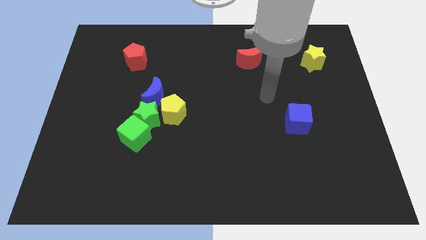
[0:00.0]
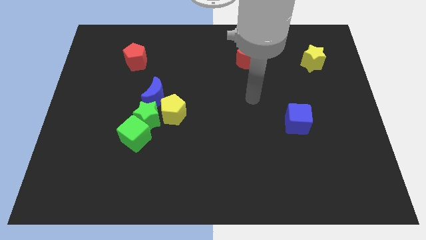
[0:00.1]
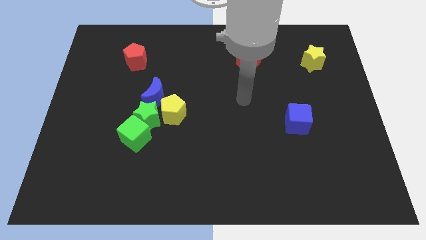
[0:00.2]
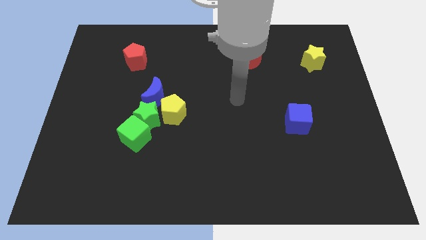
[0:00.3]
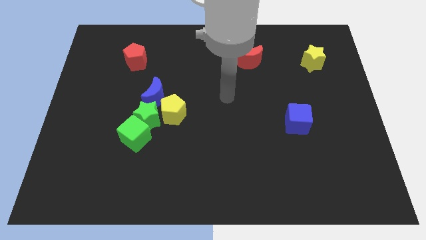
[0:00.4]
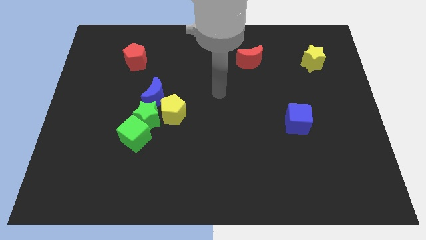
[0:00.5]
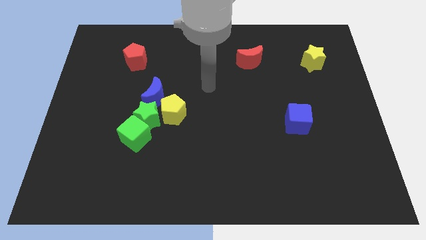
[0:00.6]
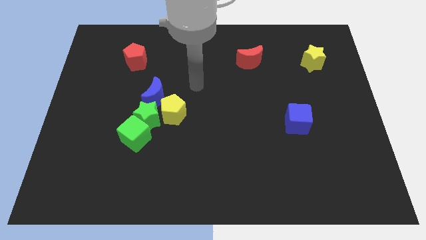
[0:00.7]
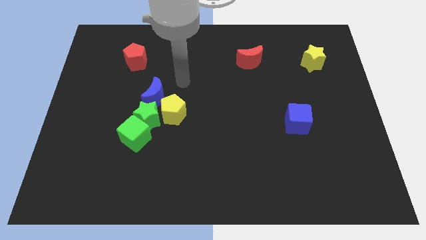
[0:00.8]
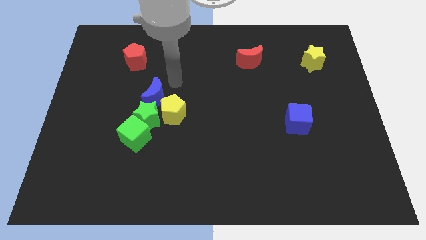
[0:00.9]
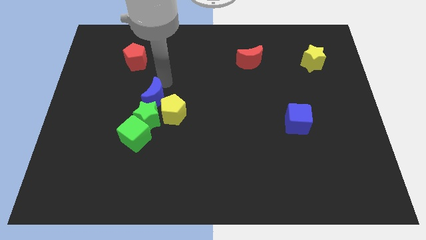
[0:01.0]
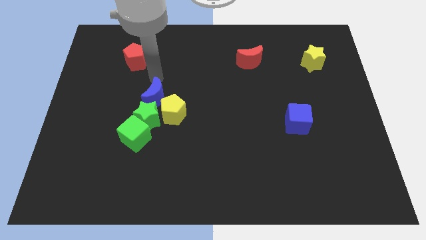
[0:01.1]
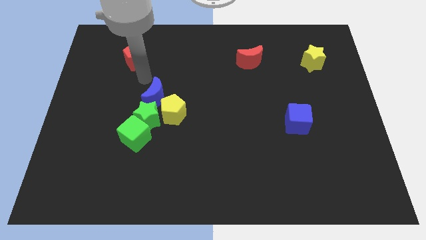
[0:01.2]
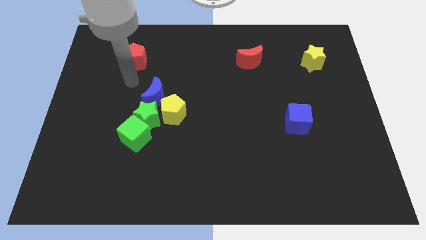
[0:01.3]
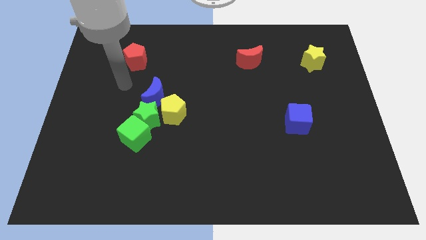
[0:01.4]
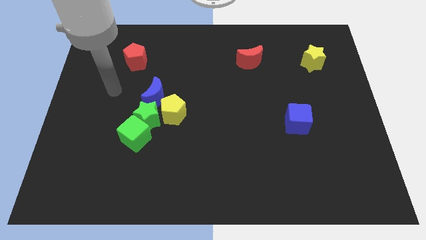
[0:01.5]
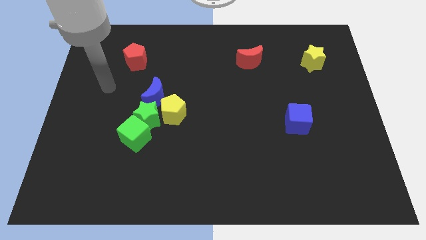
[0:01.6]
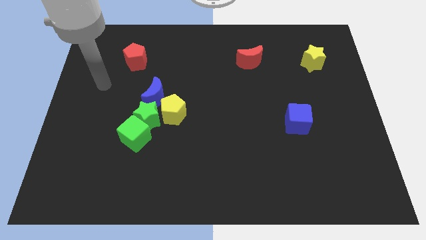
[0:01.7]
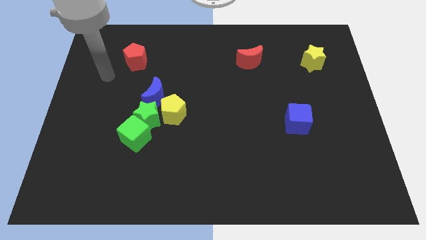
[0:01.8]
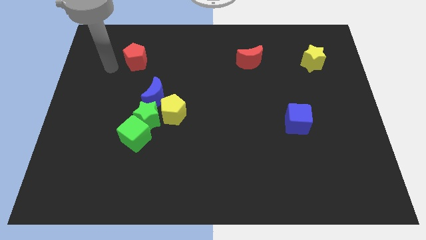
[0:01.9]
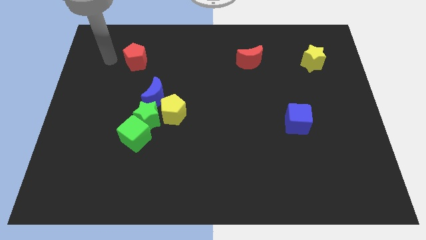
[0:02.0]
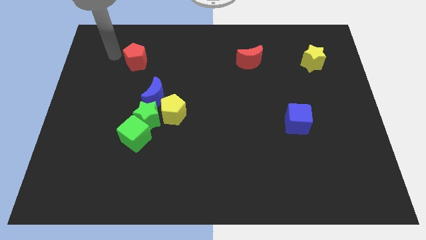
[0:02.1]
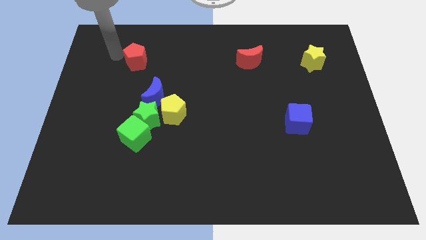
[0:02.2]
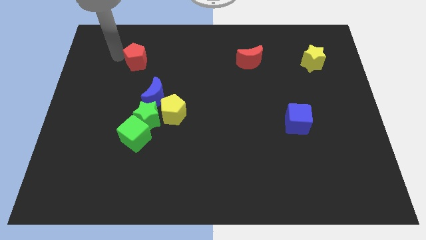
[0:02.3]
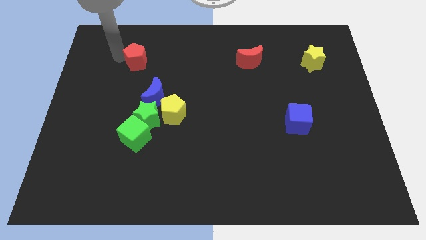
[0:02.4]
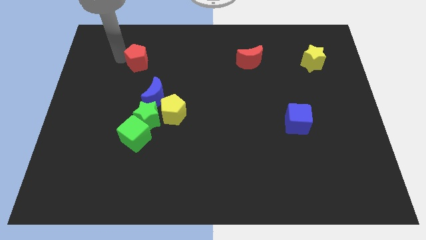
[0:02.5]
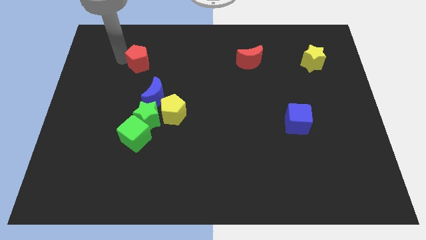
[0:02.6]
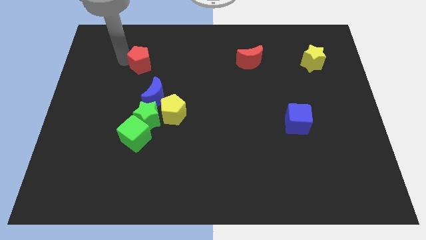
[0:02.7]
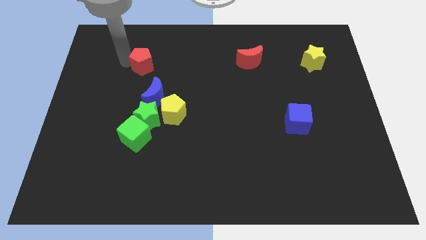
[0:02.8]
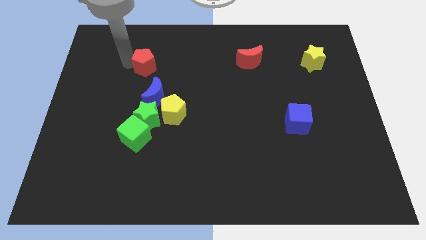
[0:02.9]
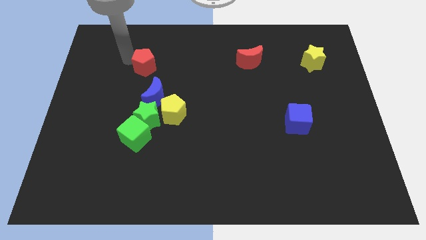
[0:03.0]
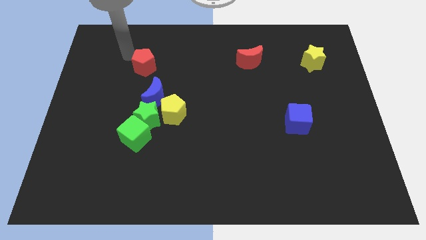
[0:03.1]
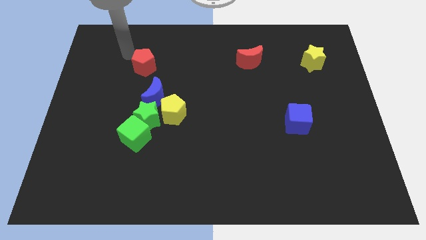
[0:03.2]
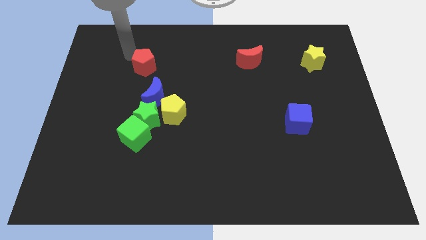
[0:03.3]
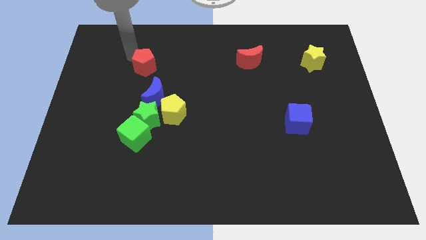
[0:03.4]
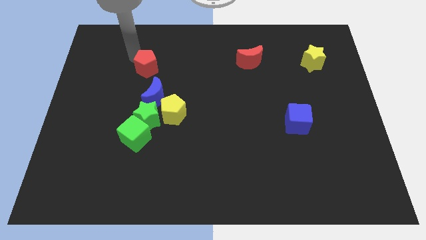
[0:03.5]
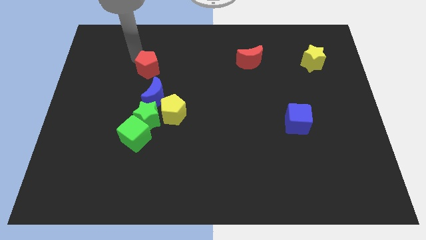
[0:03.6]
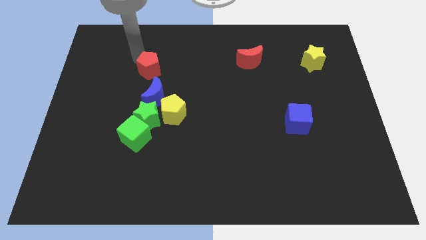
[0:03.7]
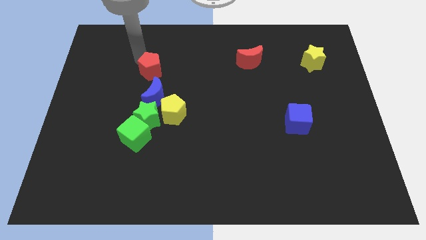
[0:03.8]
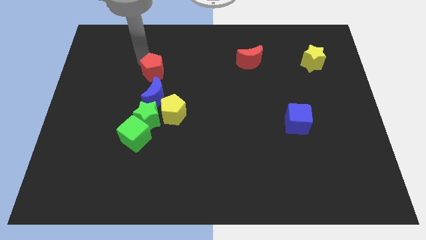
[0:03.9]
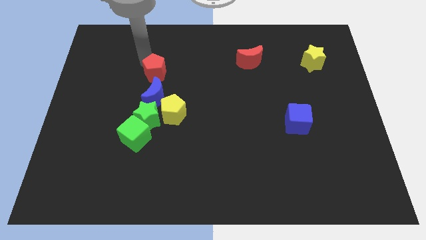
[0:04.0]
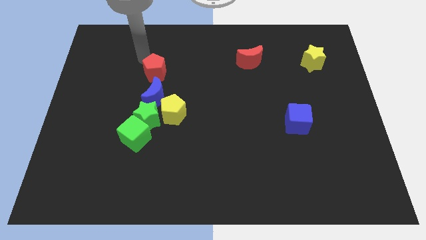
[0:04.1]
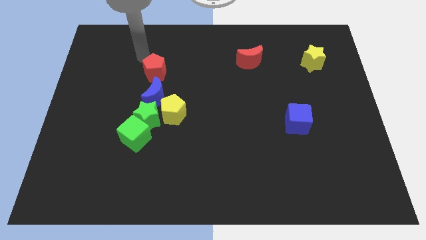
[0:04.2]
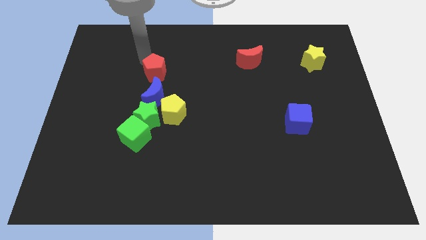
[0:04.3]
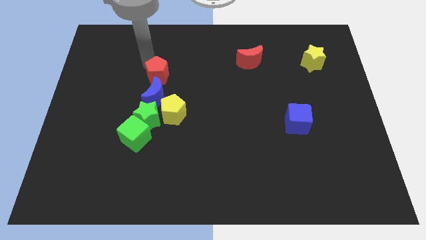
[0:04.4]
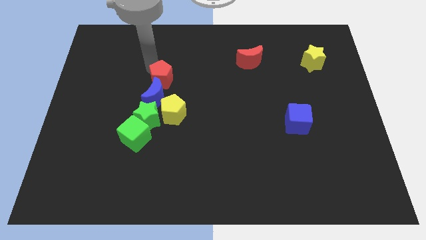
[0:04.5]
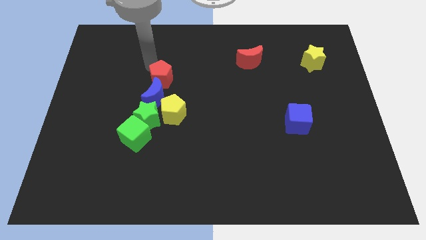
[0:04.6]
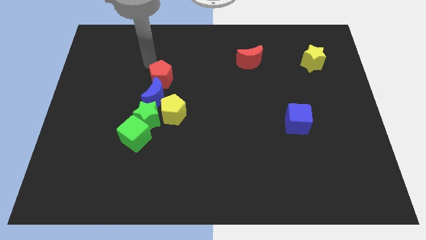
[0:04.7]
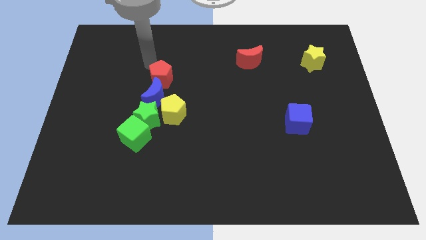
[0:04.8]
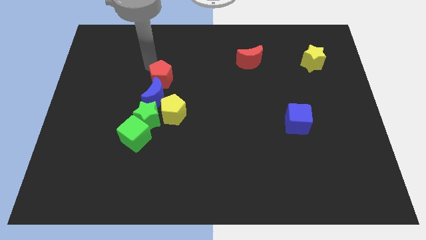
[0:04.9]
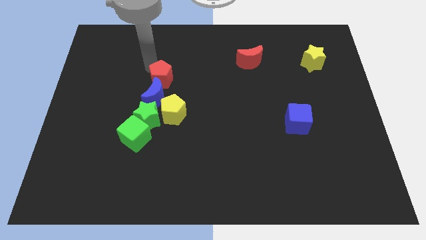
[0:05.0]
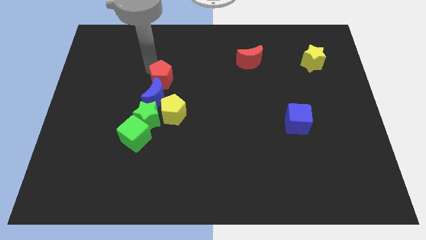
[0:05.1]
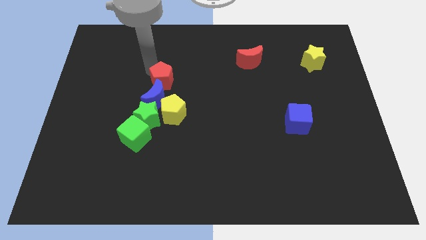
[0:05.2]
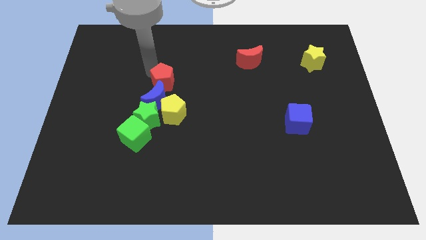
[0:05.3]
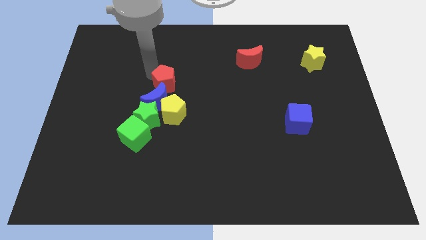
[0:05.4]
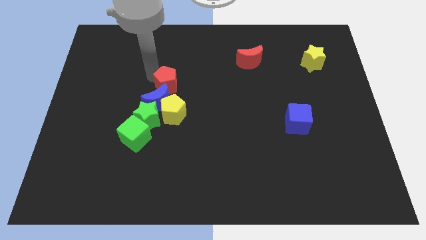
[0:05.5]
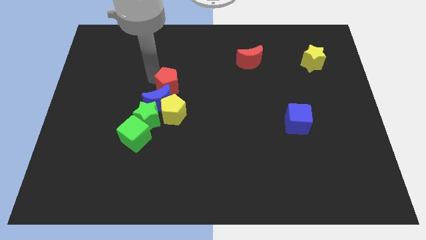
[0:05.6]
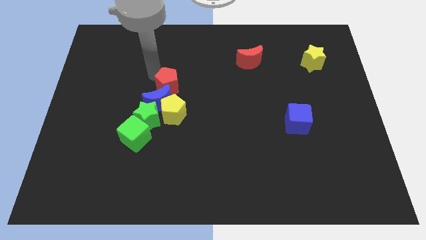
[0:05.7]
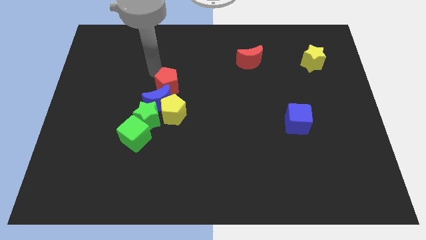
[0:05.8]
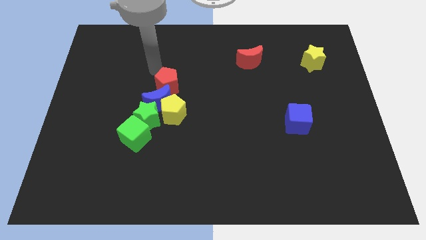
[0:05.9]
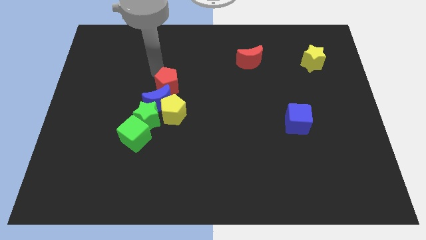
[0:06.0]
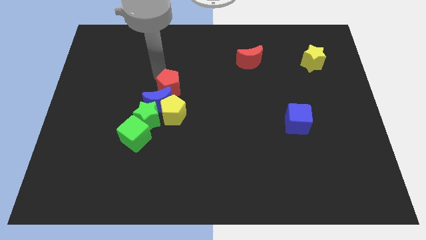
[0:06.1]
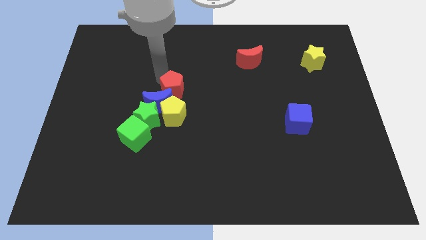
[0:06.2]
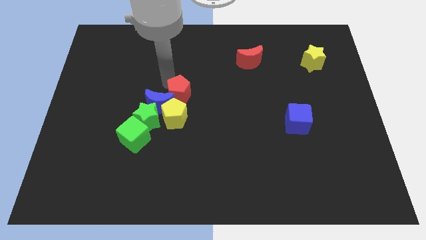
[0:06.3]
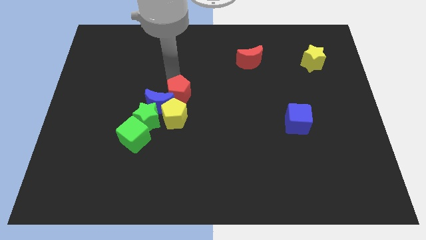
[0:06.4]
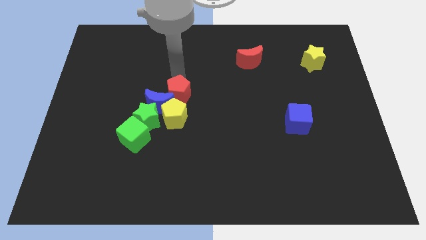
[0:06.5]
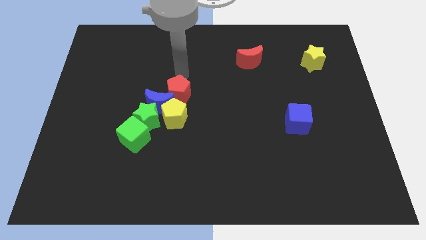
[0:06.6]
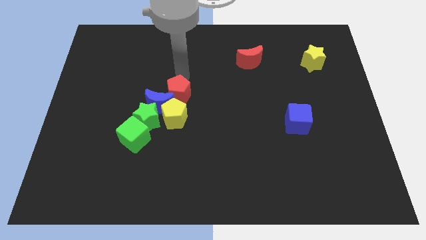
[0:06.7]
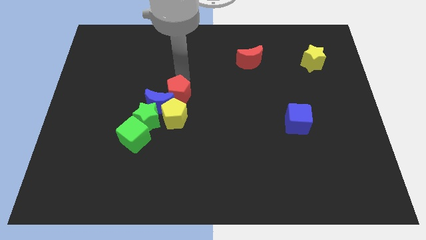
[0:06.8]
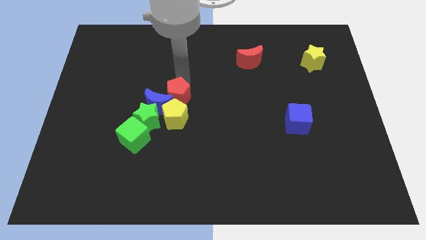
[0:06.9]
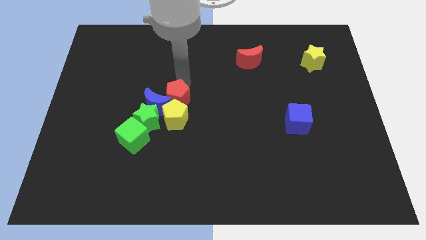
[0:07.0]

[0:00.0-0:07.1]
slide the red pentagon to the yellow pentagon

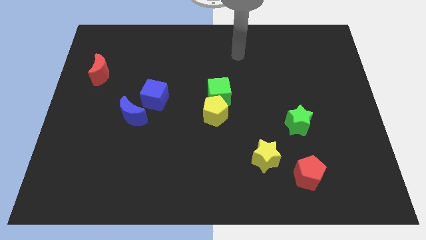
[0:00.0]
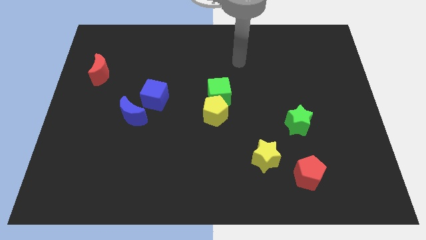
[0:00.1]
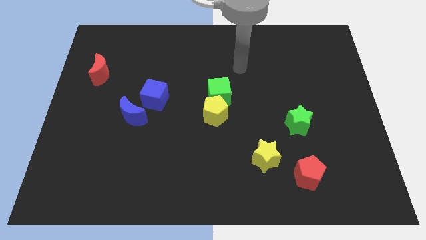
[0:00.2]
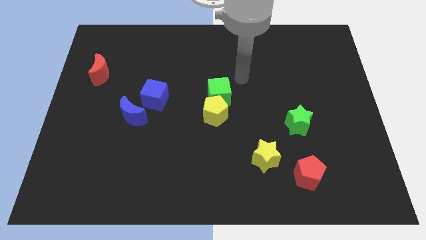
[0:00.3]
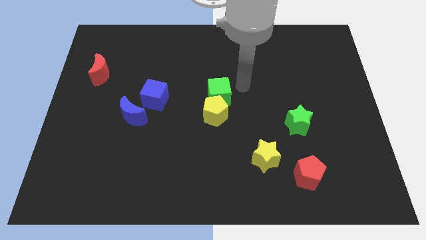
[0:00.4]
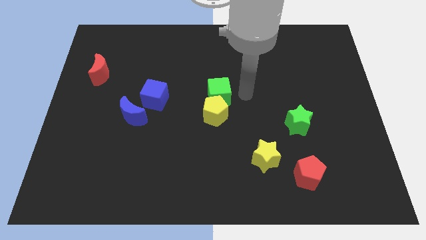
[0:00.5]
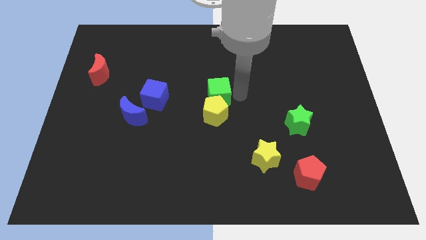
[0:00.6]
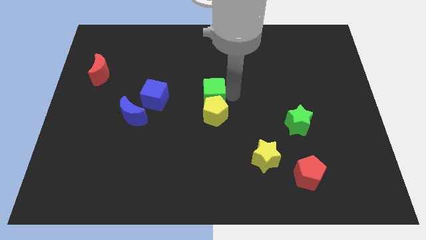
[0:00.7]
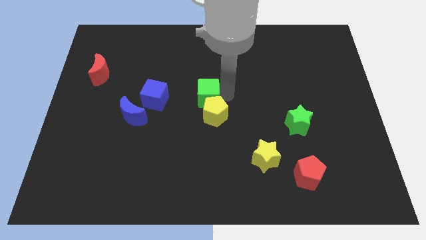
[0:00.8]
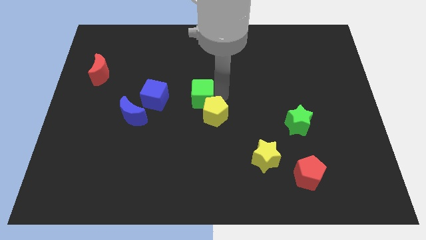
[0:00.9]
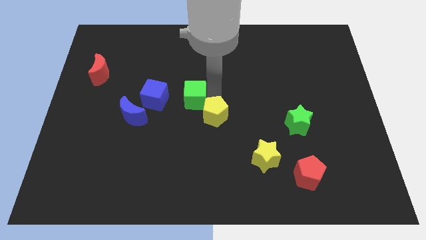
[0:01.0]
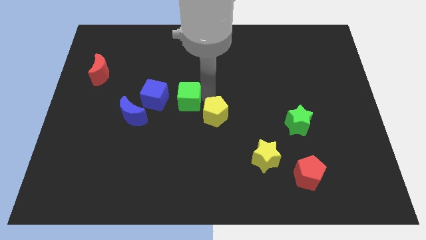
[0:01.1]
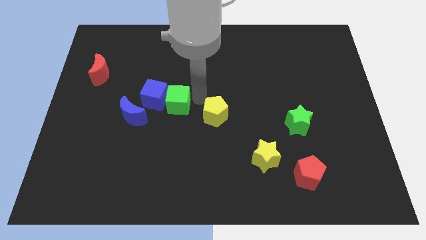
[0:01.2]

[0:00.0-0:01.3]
put the green cube to the blue cube
